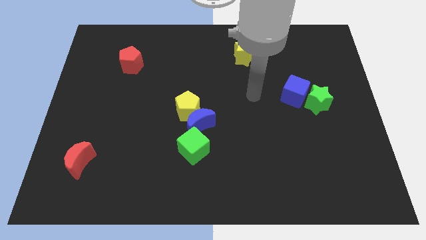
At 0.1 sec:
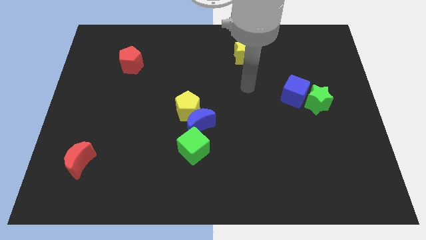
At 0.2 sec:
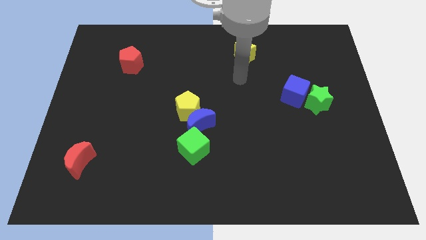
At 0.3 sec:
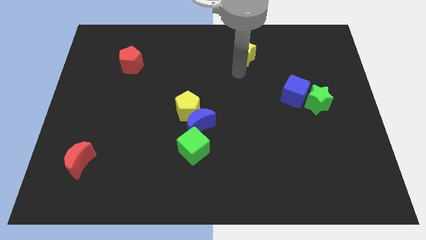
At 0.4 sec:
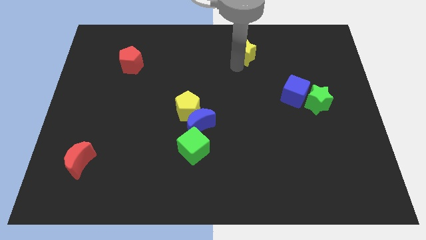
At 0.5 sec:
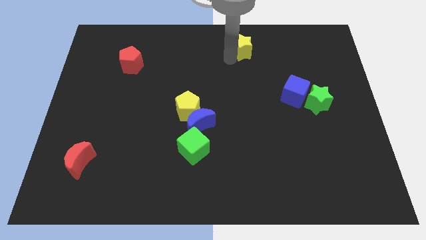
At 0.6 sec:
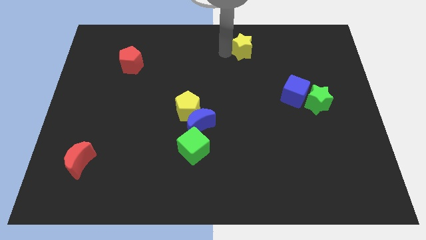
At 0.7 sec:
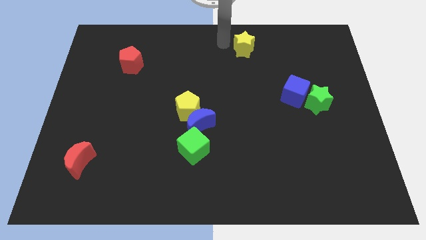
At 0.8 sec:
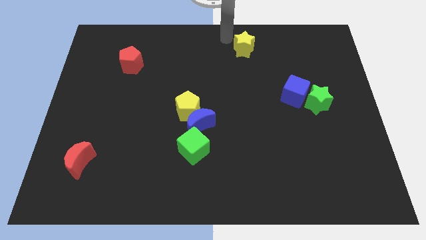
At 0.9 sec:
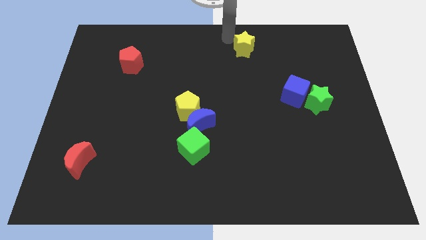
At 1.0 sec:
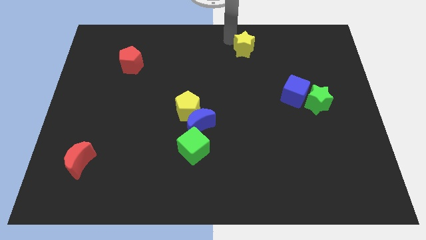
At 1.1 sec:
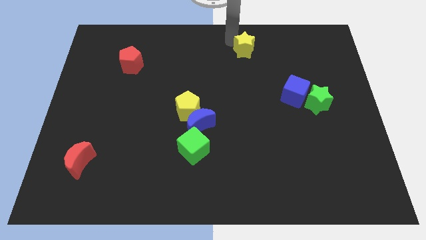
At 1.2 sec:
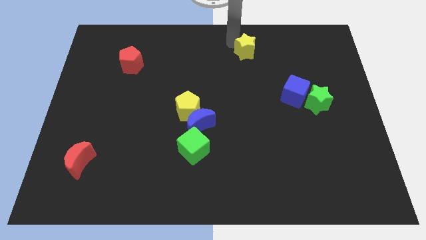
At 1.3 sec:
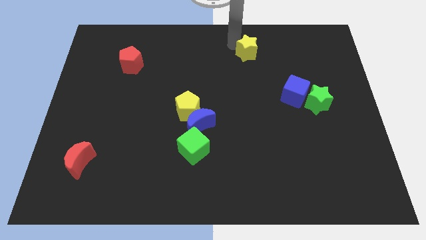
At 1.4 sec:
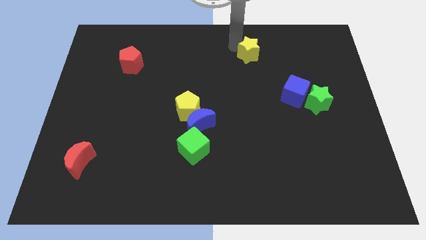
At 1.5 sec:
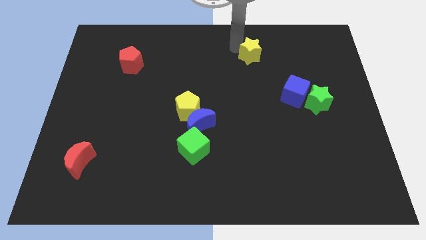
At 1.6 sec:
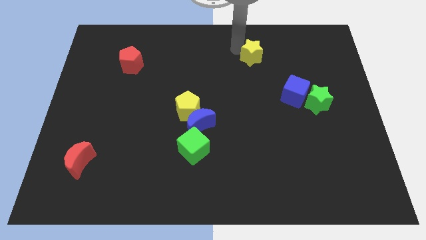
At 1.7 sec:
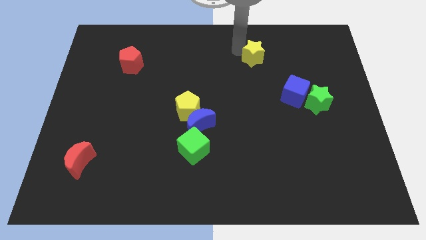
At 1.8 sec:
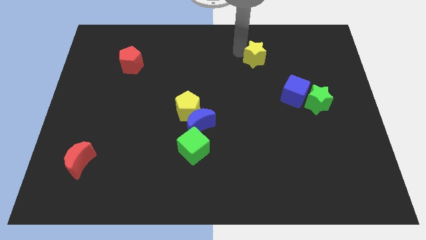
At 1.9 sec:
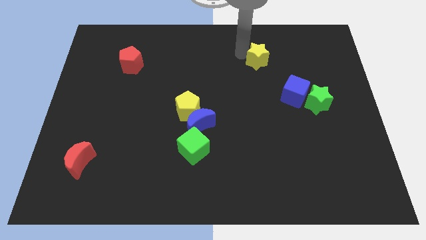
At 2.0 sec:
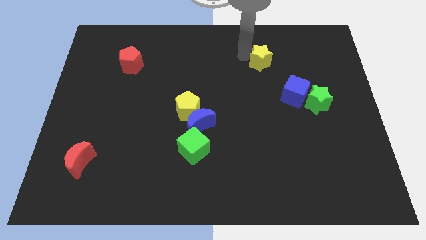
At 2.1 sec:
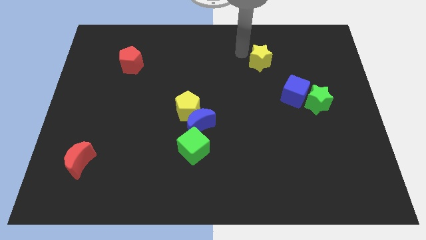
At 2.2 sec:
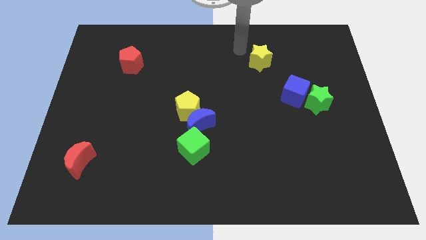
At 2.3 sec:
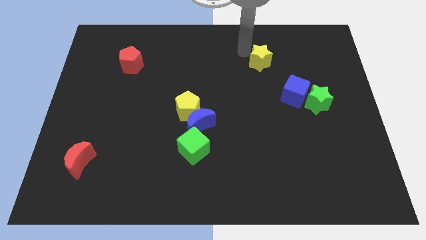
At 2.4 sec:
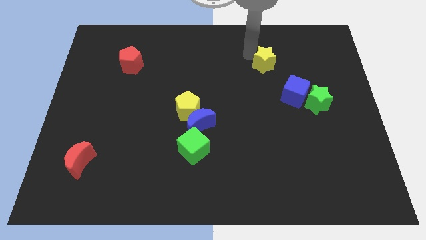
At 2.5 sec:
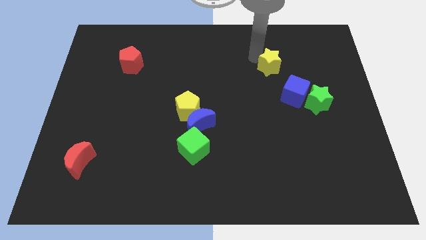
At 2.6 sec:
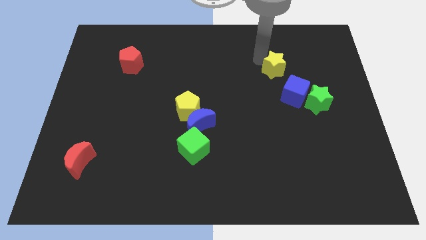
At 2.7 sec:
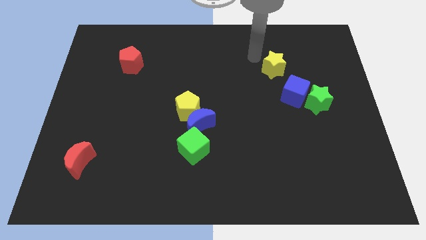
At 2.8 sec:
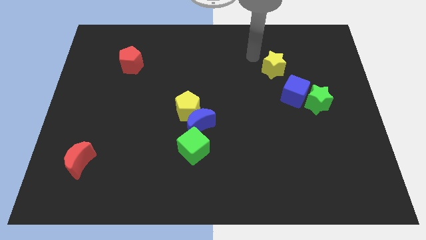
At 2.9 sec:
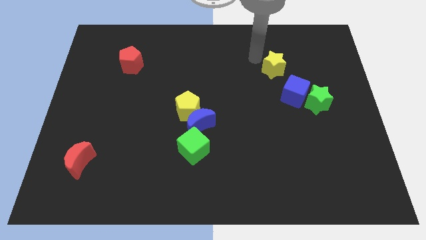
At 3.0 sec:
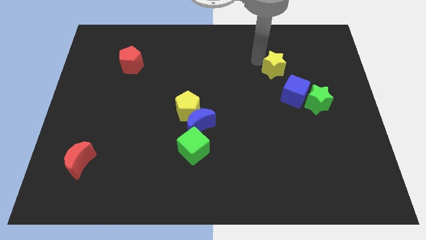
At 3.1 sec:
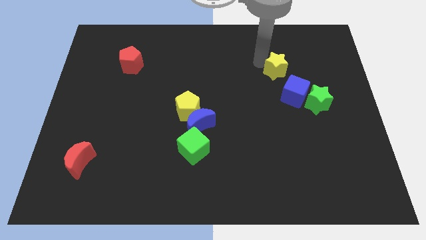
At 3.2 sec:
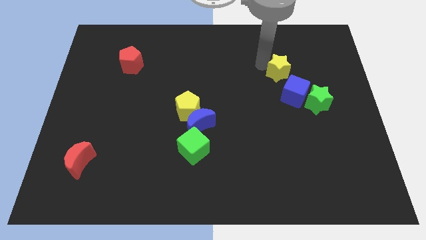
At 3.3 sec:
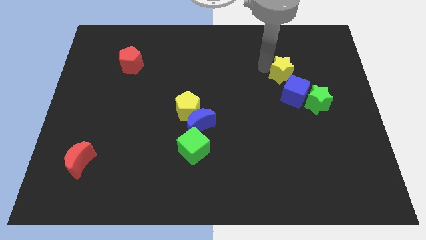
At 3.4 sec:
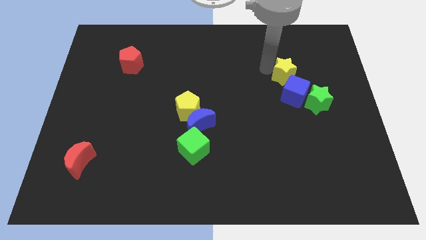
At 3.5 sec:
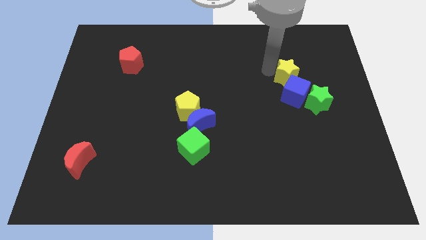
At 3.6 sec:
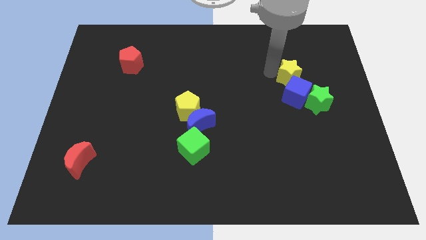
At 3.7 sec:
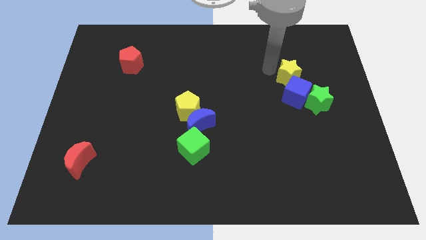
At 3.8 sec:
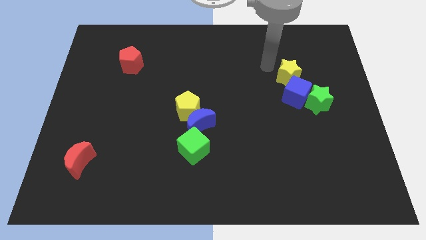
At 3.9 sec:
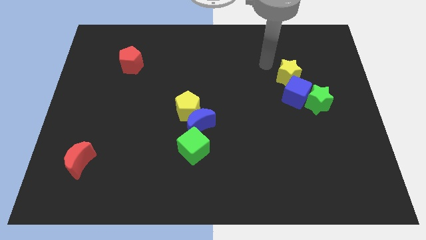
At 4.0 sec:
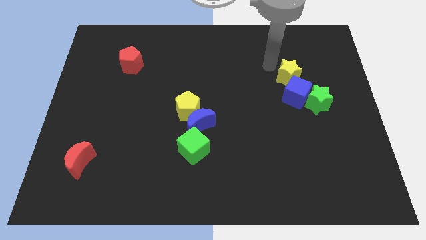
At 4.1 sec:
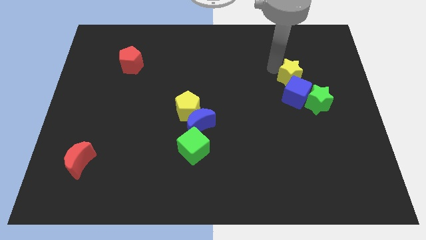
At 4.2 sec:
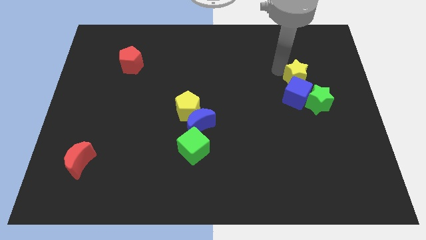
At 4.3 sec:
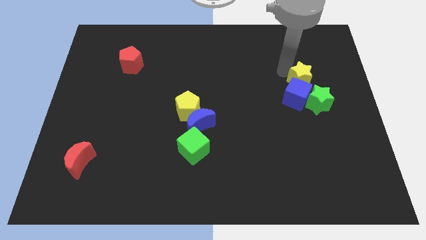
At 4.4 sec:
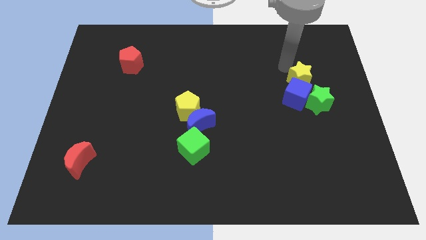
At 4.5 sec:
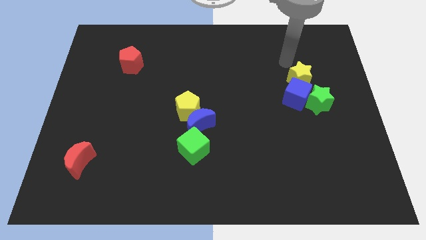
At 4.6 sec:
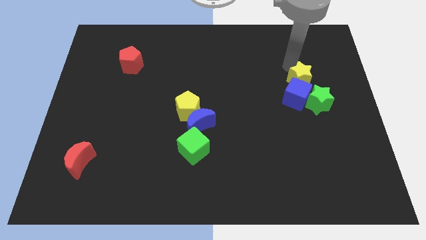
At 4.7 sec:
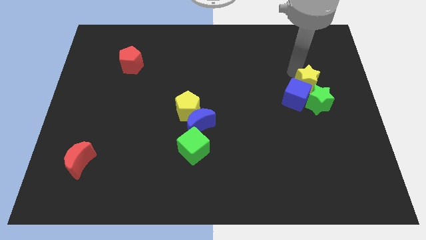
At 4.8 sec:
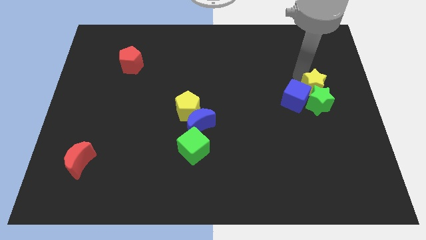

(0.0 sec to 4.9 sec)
put the yellow star close to the green star

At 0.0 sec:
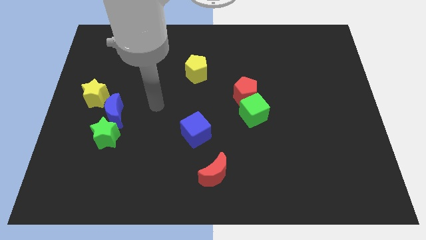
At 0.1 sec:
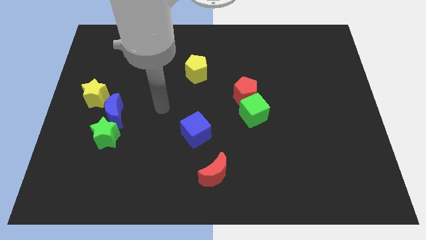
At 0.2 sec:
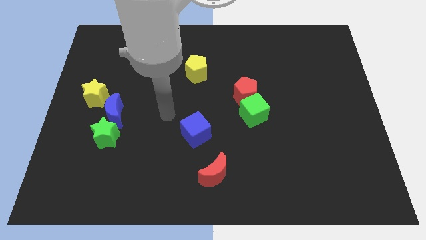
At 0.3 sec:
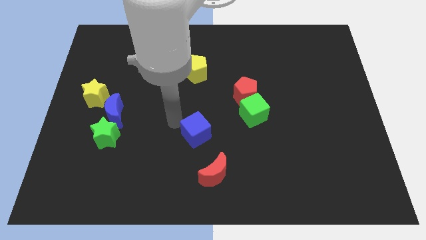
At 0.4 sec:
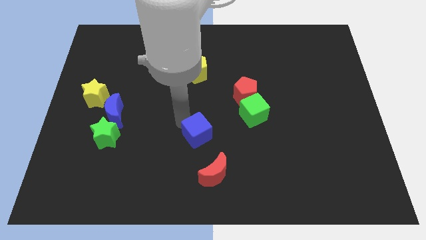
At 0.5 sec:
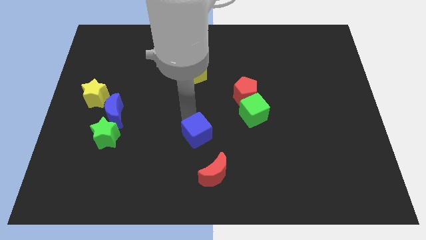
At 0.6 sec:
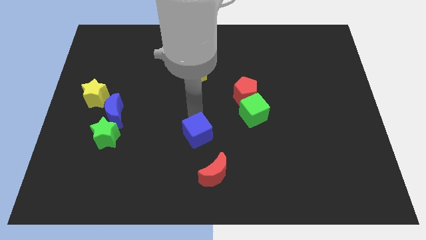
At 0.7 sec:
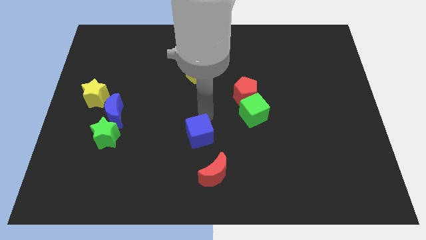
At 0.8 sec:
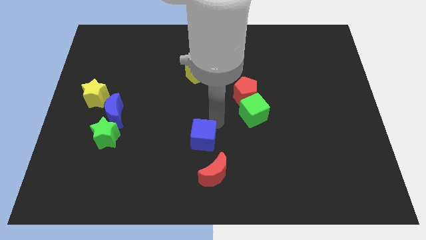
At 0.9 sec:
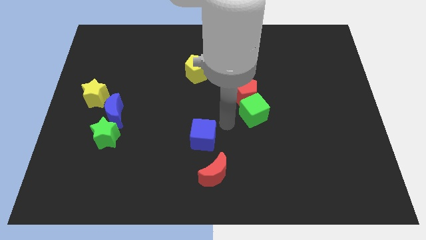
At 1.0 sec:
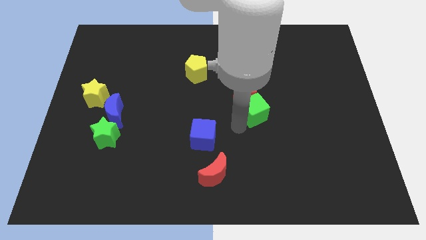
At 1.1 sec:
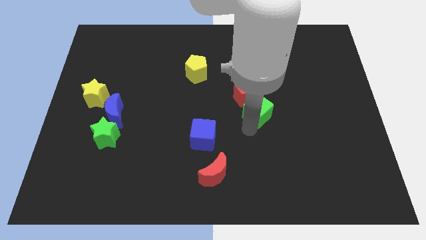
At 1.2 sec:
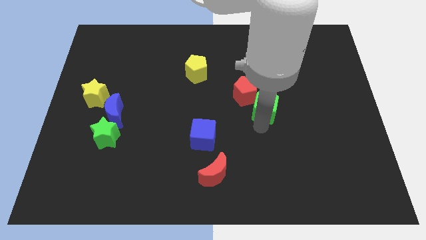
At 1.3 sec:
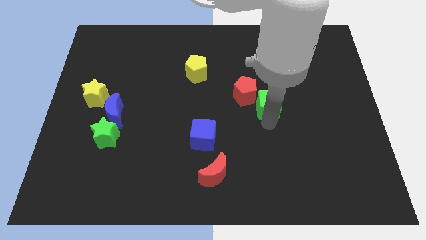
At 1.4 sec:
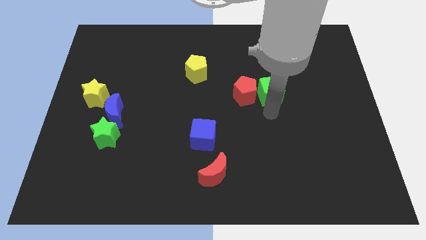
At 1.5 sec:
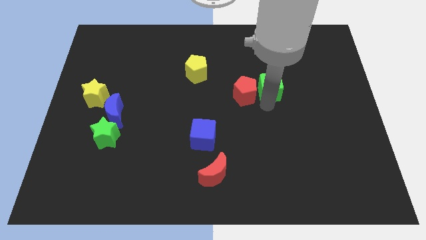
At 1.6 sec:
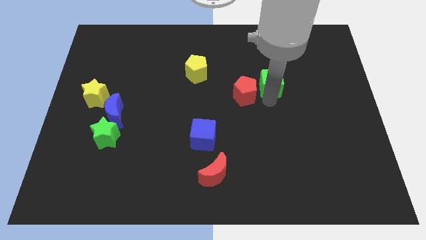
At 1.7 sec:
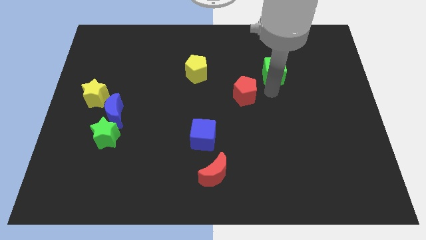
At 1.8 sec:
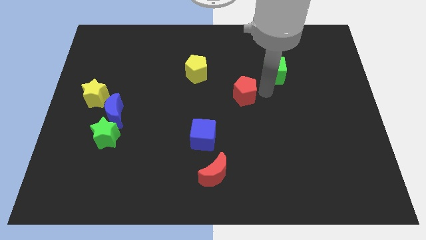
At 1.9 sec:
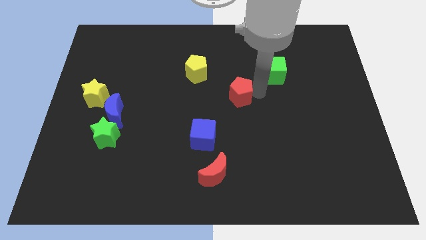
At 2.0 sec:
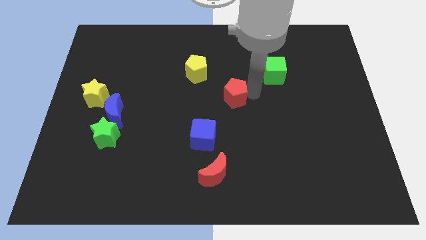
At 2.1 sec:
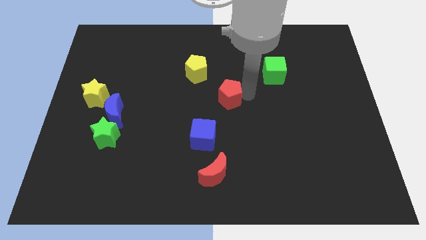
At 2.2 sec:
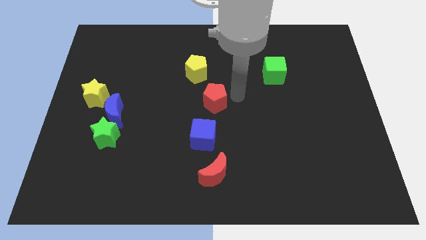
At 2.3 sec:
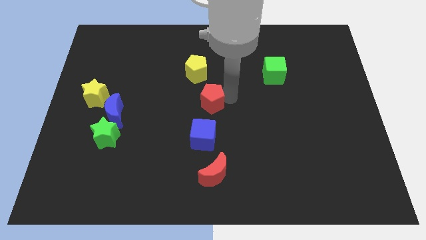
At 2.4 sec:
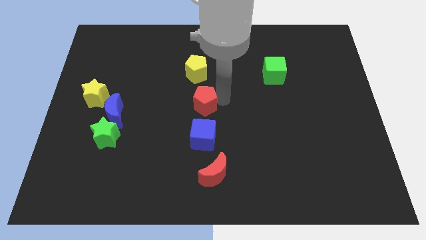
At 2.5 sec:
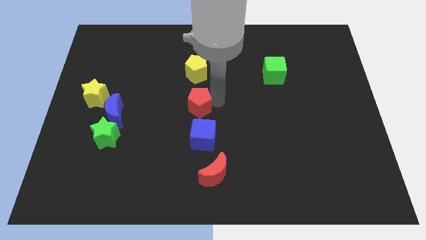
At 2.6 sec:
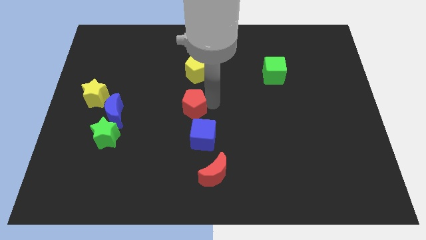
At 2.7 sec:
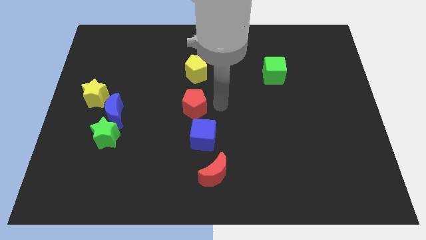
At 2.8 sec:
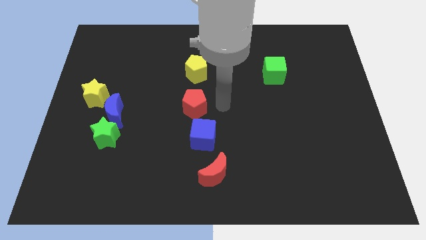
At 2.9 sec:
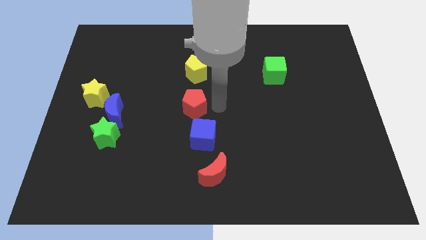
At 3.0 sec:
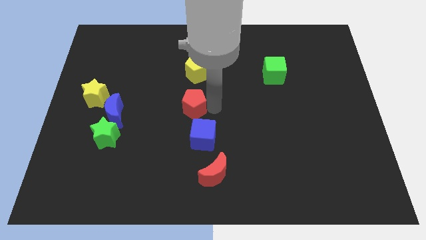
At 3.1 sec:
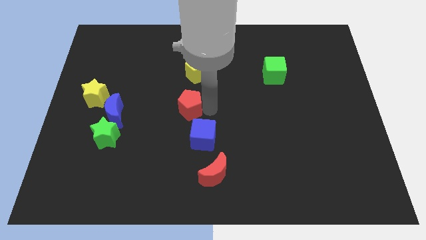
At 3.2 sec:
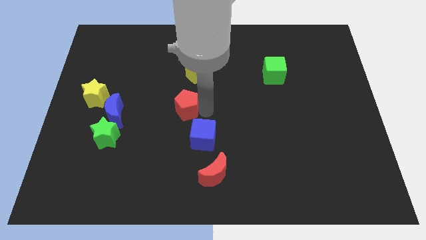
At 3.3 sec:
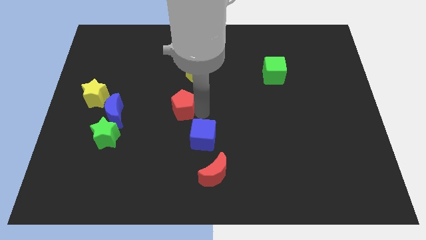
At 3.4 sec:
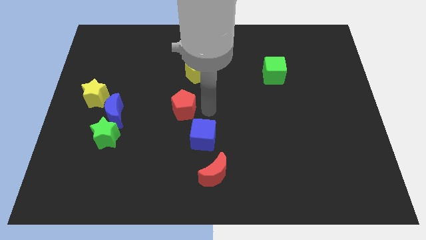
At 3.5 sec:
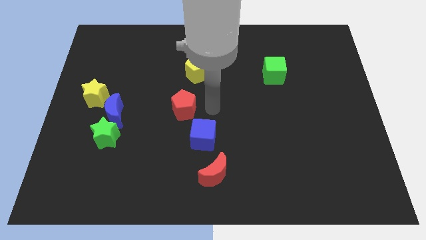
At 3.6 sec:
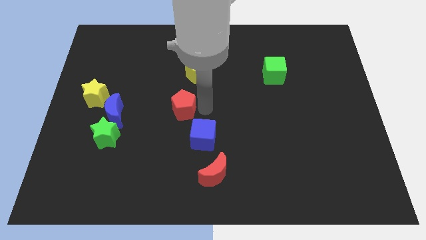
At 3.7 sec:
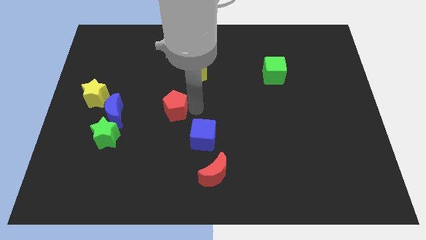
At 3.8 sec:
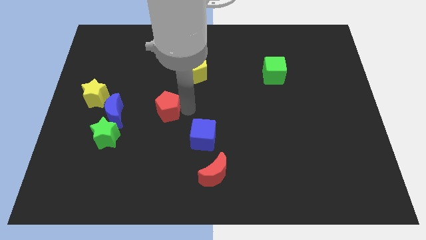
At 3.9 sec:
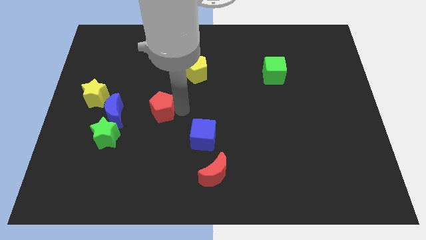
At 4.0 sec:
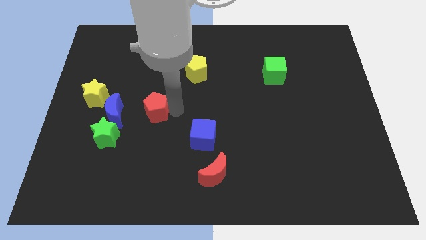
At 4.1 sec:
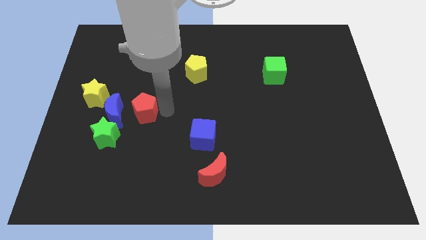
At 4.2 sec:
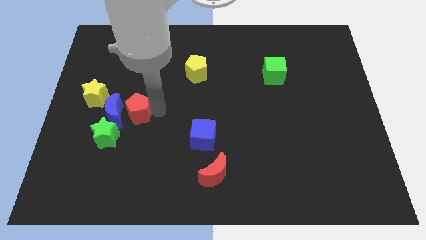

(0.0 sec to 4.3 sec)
push the red pentagon to the blue moon
